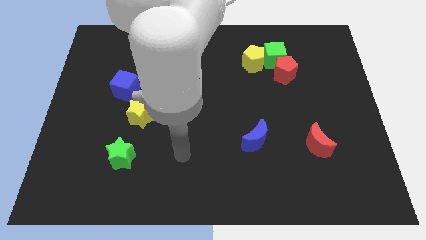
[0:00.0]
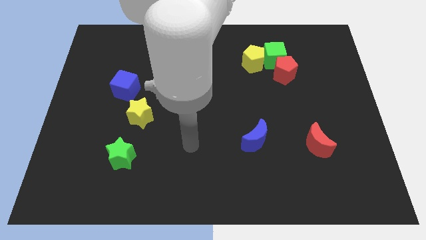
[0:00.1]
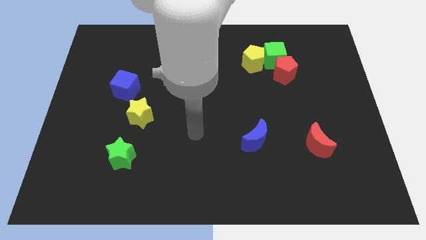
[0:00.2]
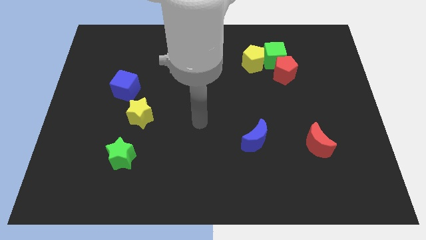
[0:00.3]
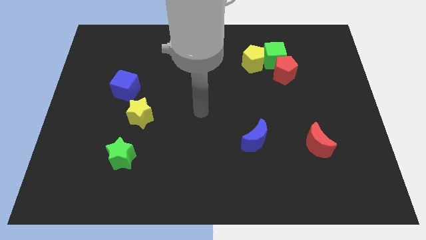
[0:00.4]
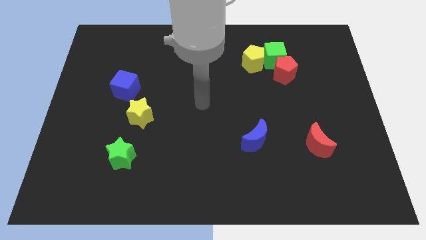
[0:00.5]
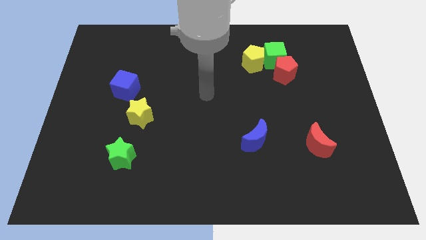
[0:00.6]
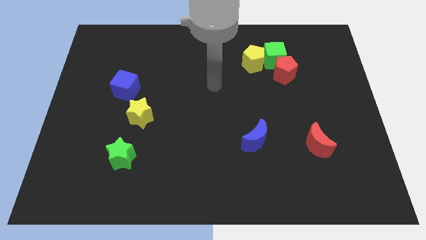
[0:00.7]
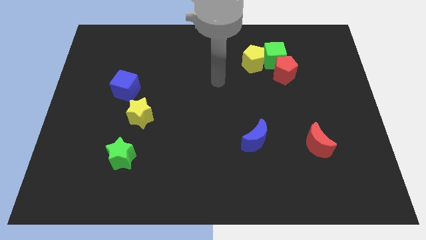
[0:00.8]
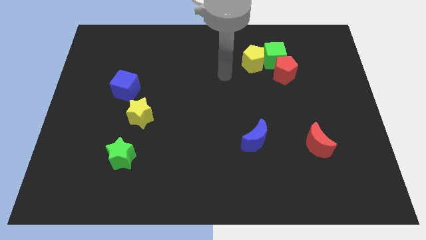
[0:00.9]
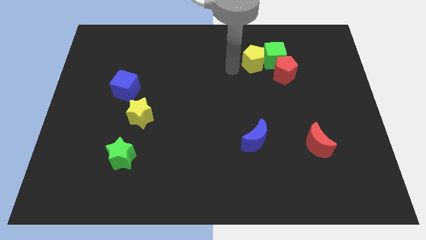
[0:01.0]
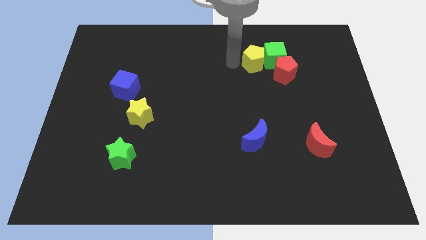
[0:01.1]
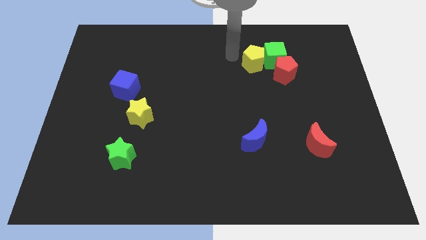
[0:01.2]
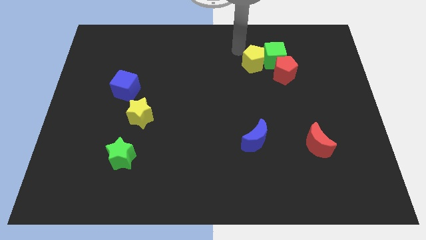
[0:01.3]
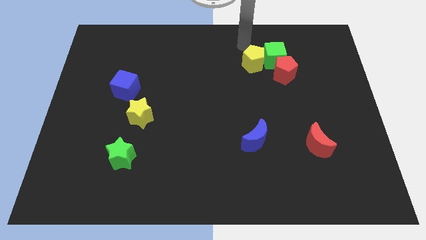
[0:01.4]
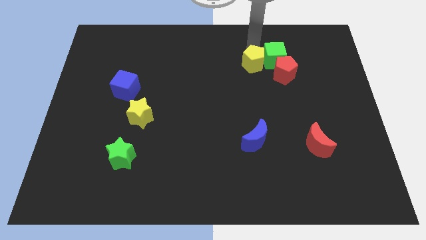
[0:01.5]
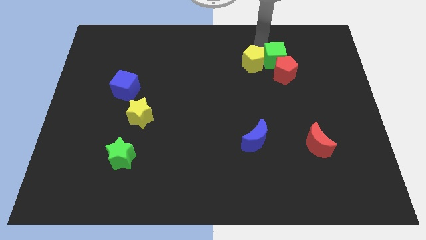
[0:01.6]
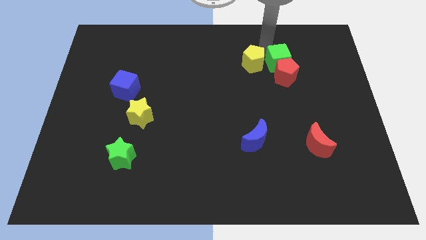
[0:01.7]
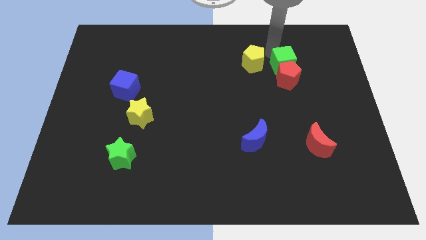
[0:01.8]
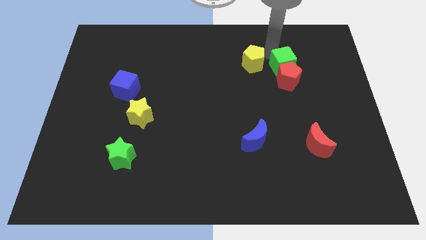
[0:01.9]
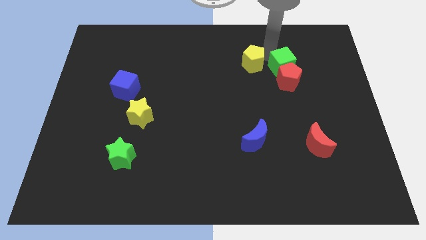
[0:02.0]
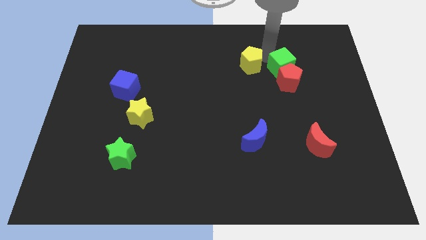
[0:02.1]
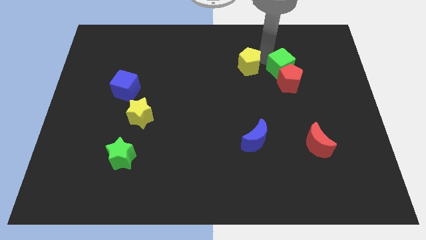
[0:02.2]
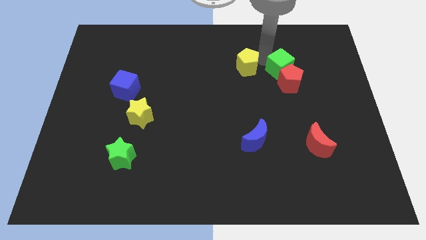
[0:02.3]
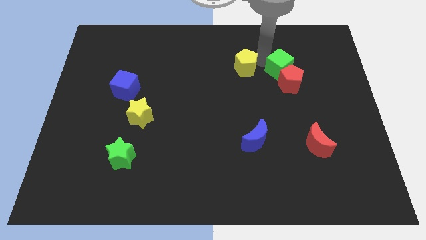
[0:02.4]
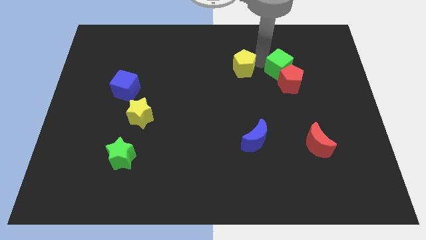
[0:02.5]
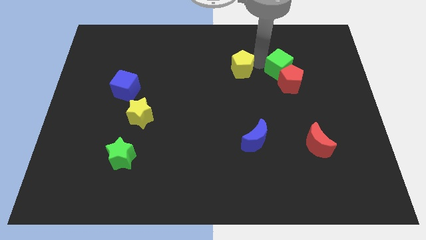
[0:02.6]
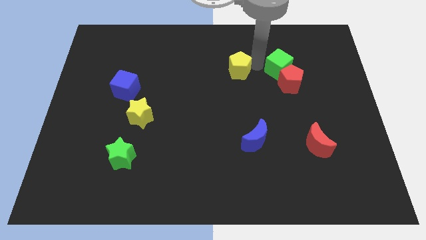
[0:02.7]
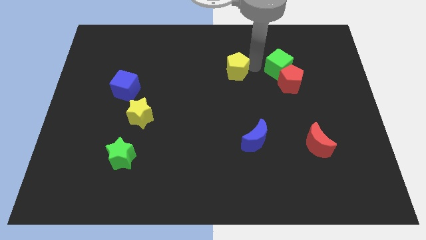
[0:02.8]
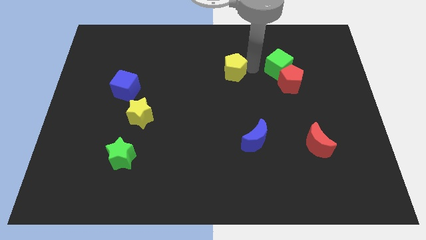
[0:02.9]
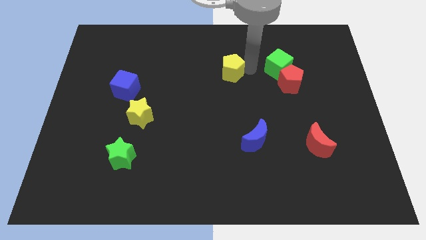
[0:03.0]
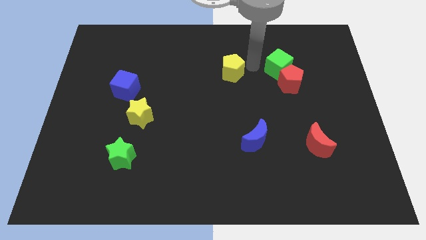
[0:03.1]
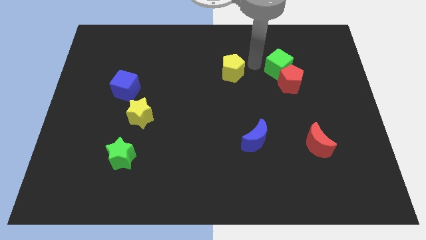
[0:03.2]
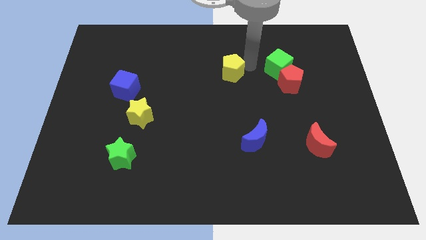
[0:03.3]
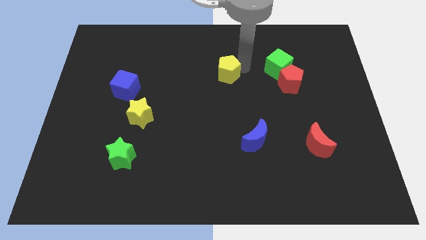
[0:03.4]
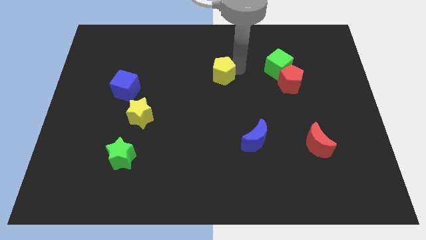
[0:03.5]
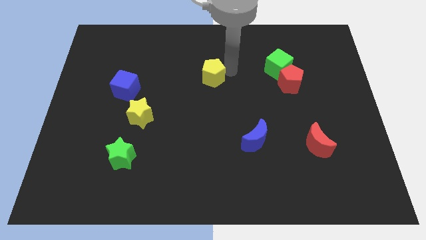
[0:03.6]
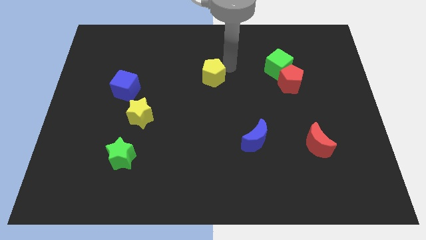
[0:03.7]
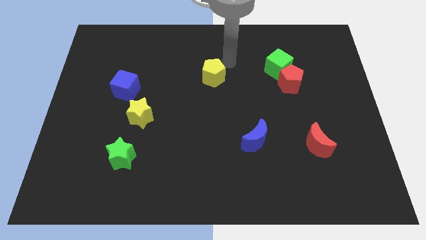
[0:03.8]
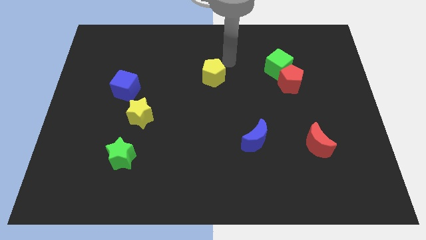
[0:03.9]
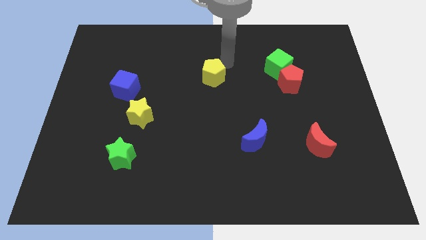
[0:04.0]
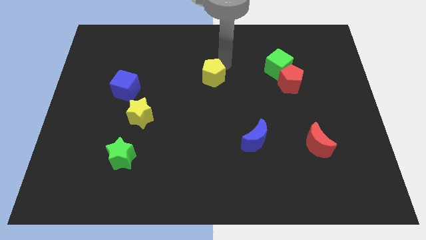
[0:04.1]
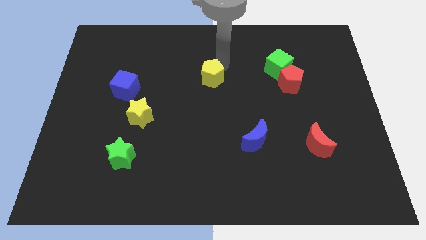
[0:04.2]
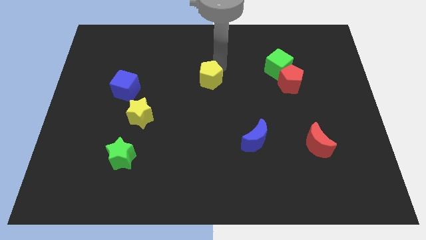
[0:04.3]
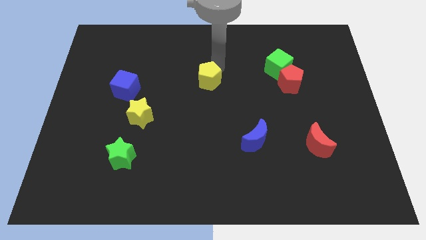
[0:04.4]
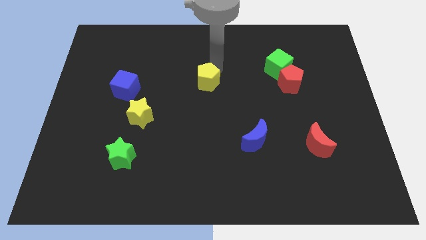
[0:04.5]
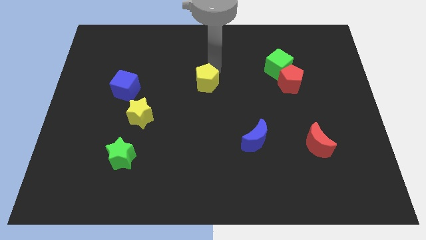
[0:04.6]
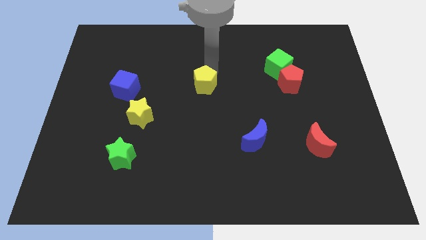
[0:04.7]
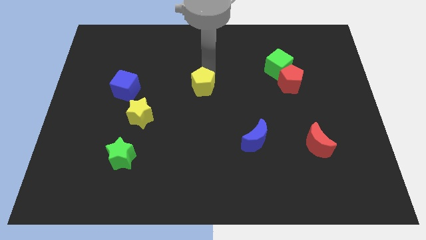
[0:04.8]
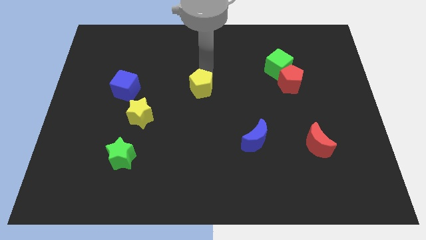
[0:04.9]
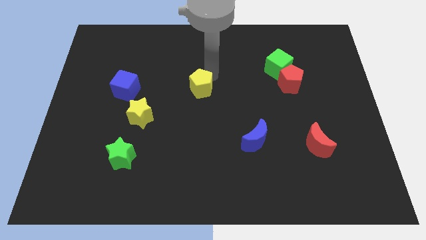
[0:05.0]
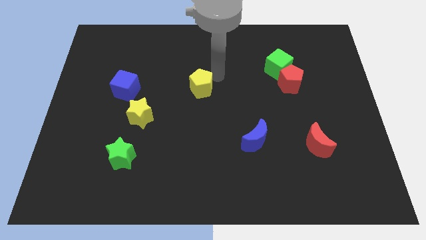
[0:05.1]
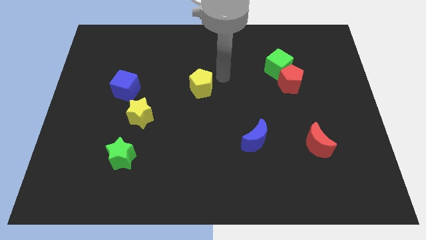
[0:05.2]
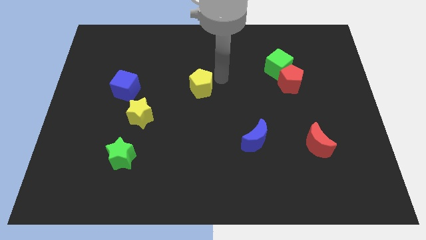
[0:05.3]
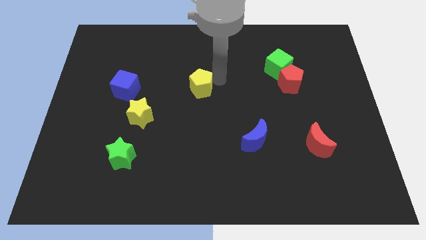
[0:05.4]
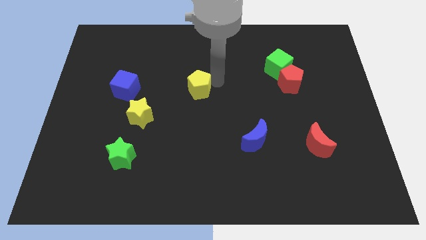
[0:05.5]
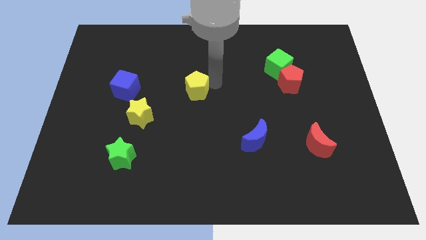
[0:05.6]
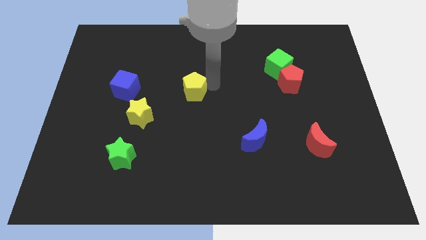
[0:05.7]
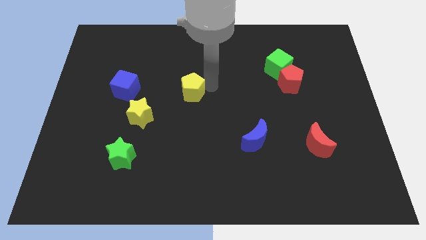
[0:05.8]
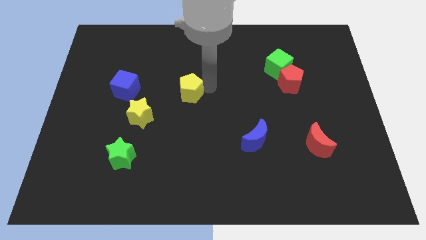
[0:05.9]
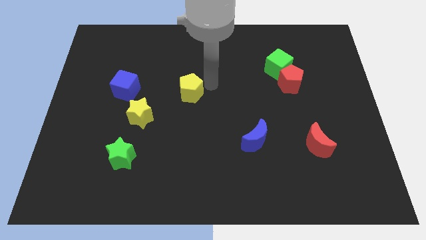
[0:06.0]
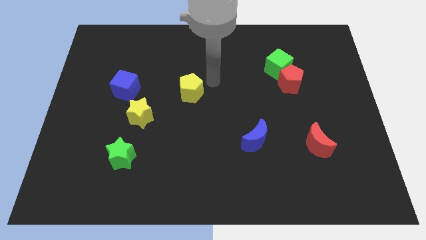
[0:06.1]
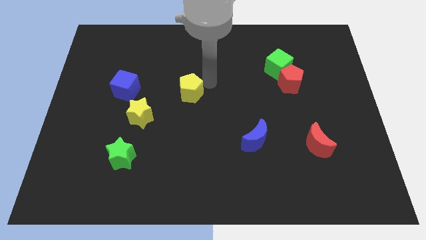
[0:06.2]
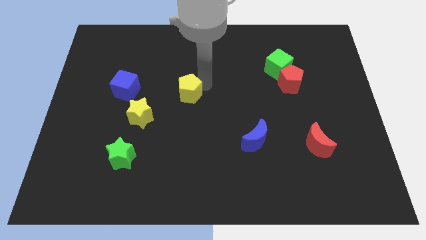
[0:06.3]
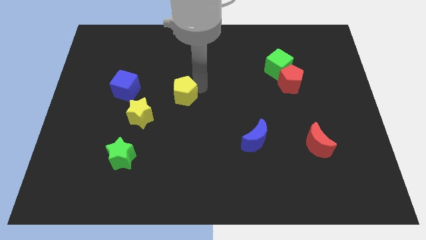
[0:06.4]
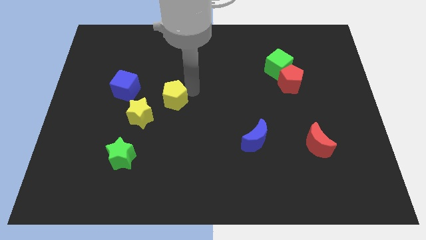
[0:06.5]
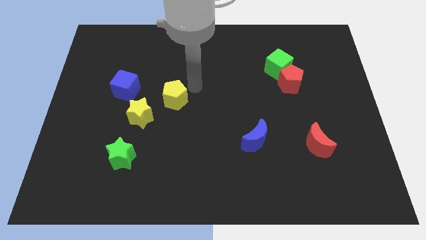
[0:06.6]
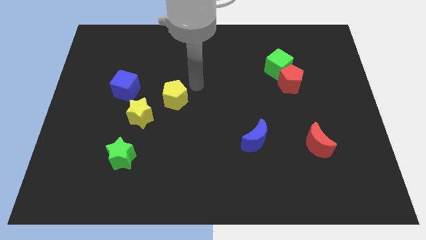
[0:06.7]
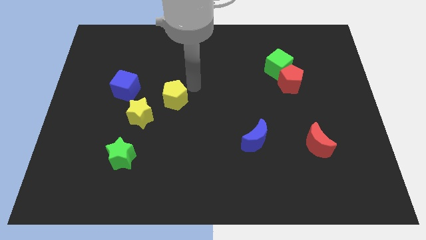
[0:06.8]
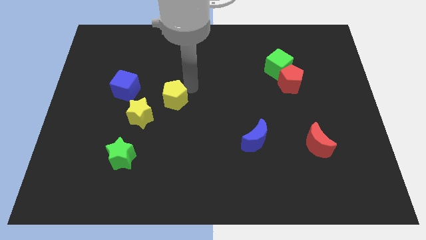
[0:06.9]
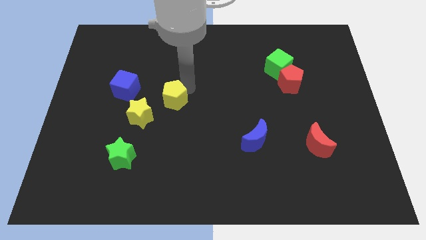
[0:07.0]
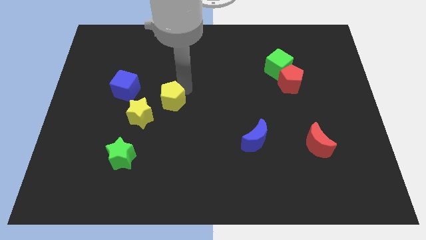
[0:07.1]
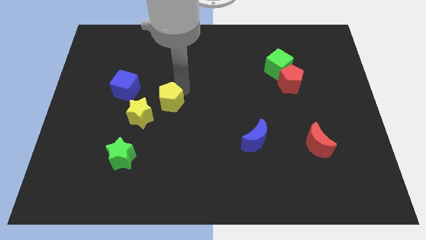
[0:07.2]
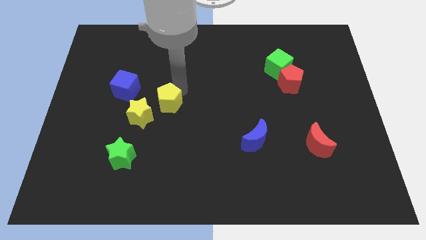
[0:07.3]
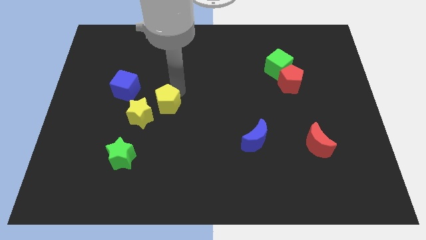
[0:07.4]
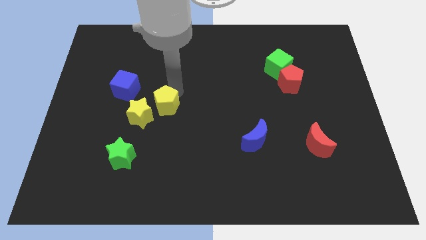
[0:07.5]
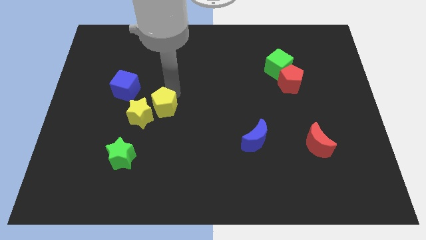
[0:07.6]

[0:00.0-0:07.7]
push the yellow pentagon towards the yellow star
